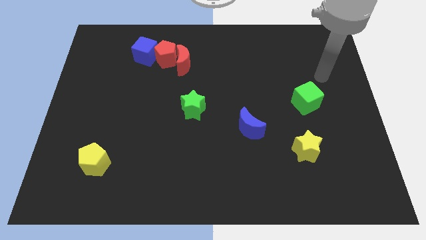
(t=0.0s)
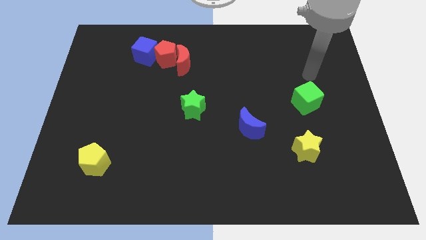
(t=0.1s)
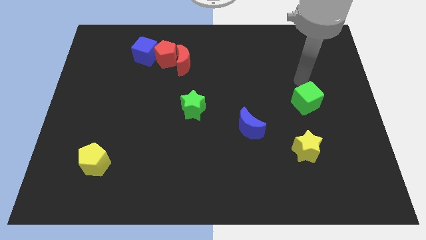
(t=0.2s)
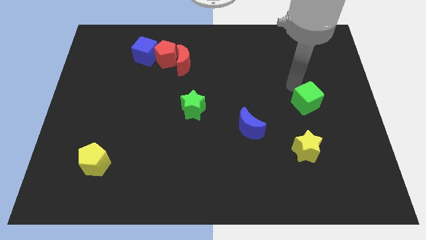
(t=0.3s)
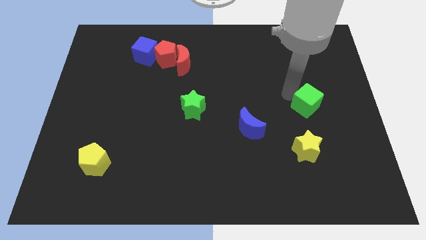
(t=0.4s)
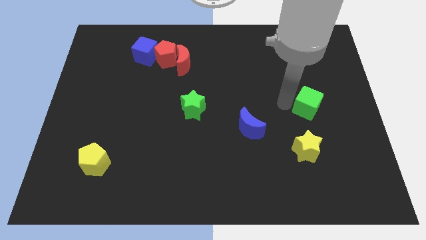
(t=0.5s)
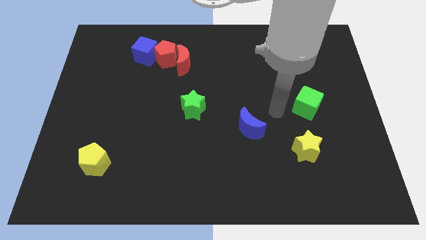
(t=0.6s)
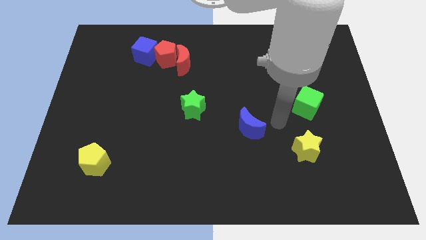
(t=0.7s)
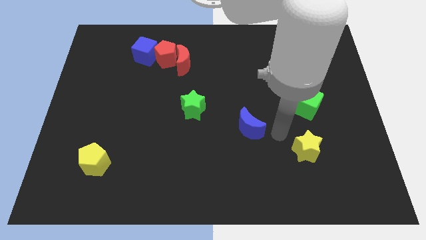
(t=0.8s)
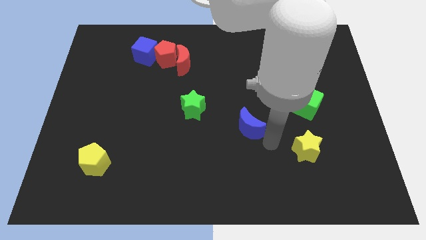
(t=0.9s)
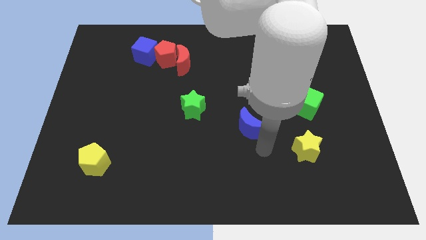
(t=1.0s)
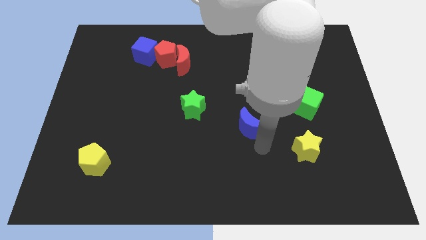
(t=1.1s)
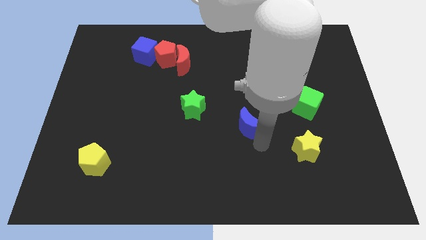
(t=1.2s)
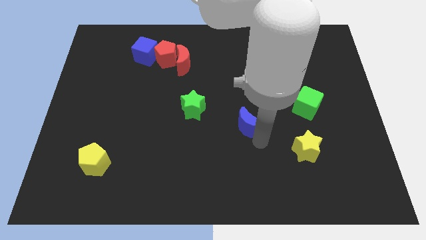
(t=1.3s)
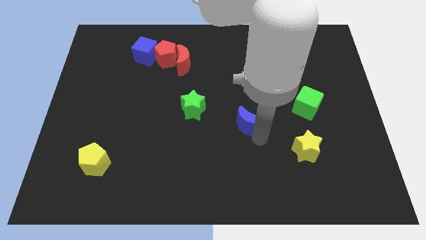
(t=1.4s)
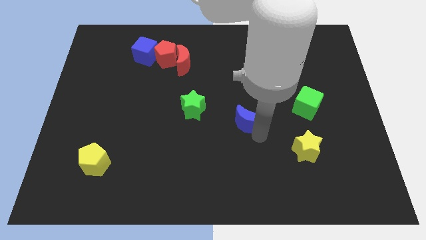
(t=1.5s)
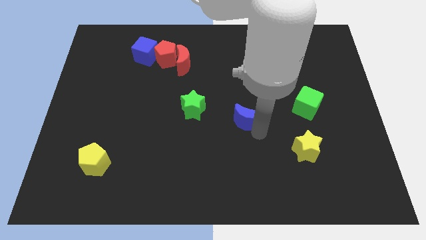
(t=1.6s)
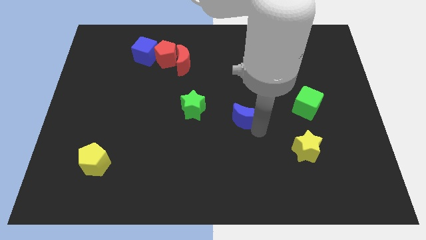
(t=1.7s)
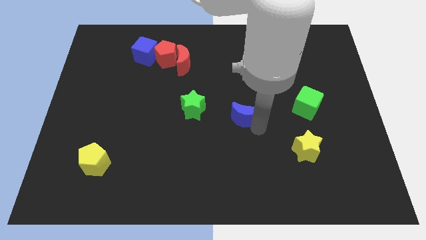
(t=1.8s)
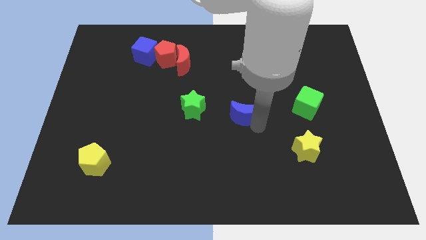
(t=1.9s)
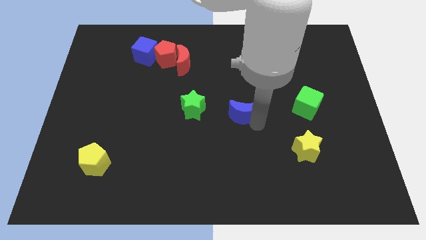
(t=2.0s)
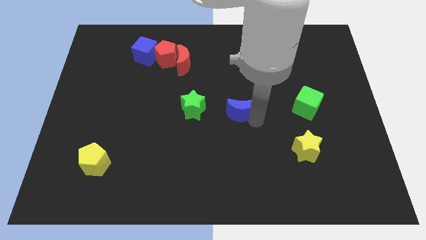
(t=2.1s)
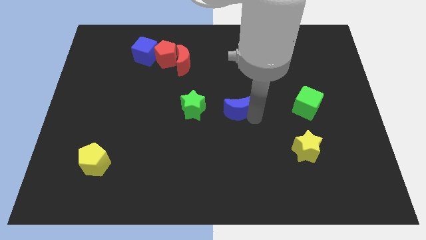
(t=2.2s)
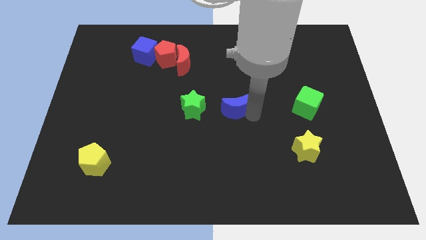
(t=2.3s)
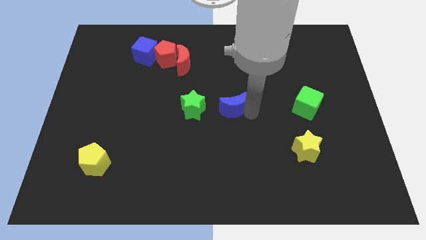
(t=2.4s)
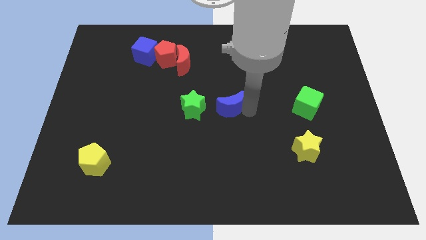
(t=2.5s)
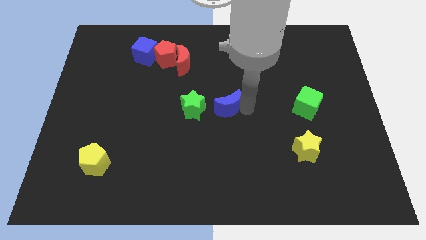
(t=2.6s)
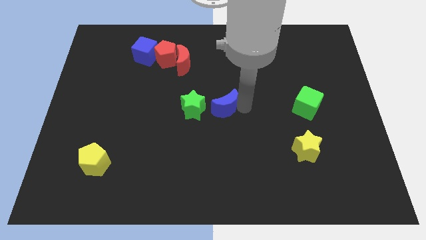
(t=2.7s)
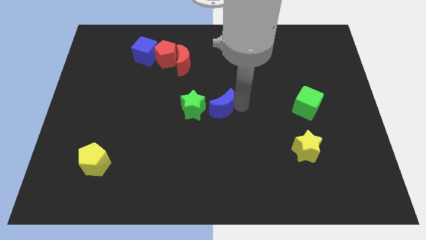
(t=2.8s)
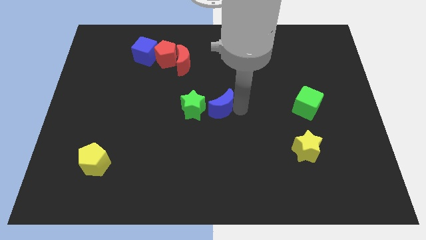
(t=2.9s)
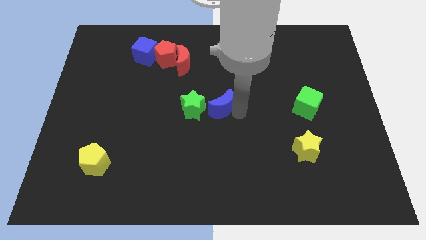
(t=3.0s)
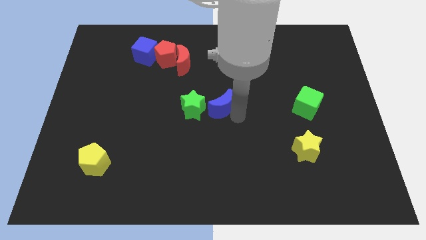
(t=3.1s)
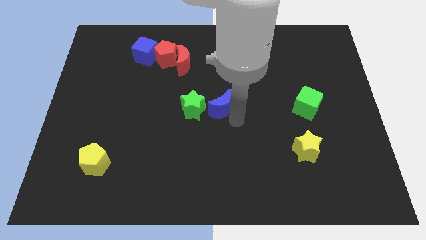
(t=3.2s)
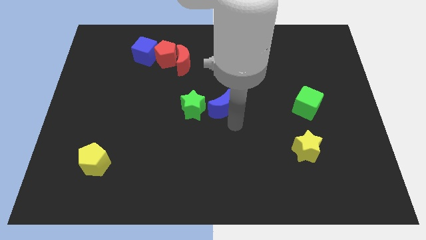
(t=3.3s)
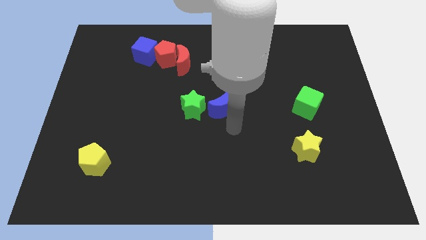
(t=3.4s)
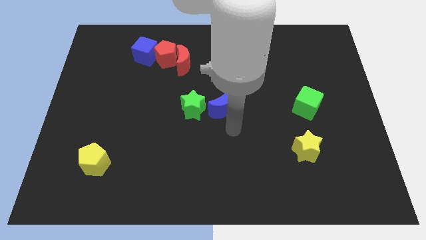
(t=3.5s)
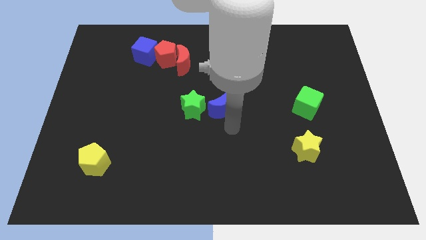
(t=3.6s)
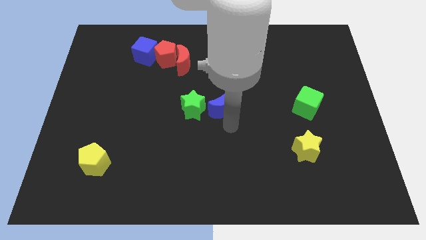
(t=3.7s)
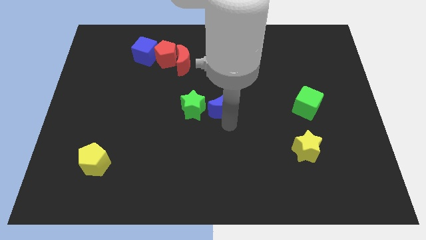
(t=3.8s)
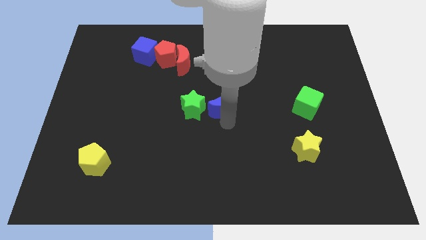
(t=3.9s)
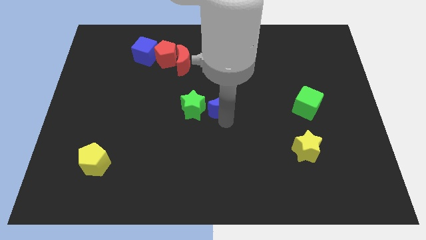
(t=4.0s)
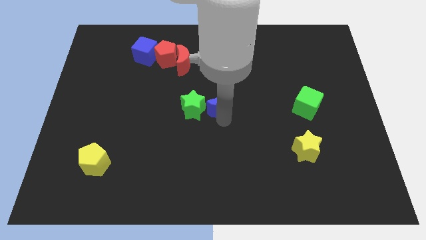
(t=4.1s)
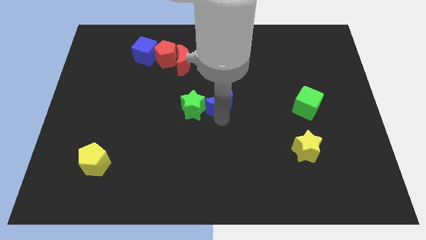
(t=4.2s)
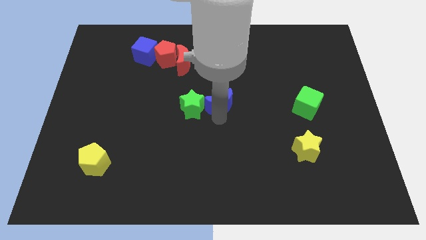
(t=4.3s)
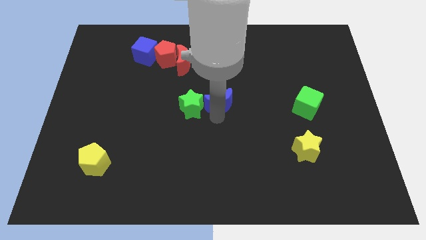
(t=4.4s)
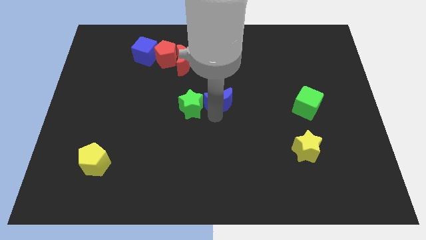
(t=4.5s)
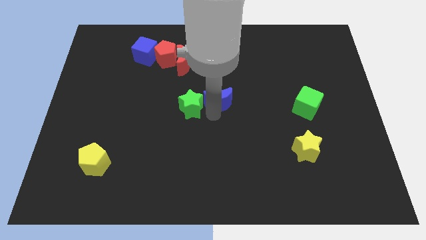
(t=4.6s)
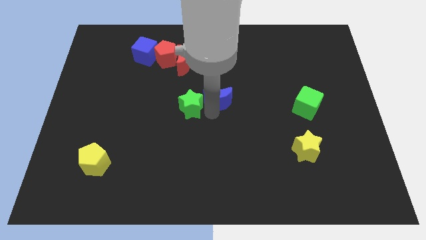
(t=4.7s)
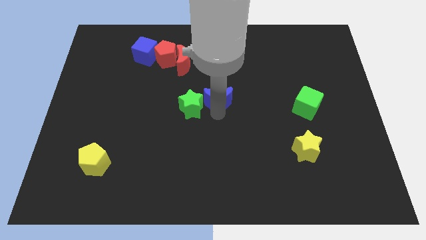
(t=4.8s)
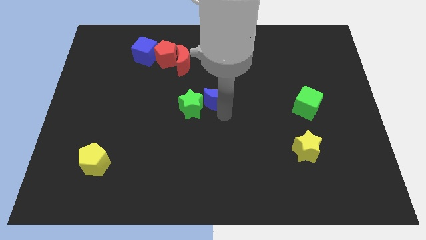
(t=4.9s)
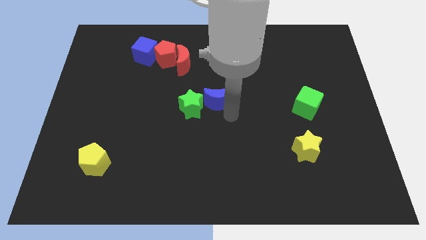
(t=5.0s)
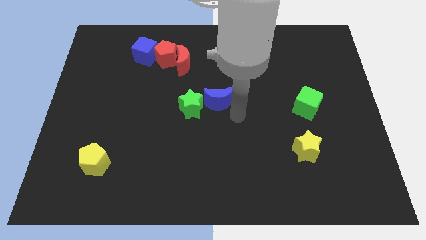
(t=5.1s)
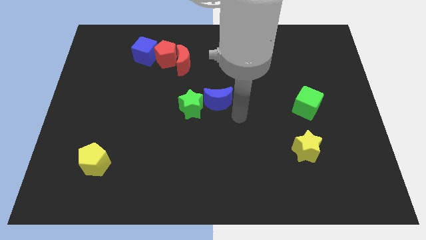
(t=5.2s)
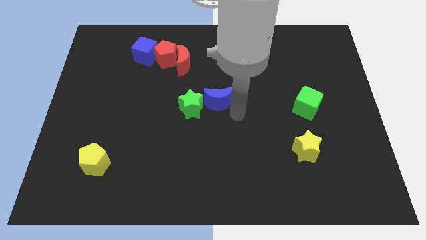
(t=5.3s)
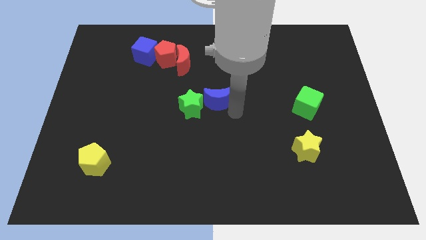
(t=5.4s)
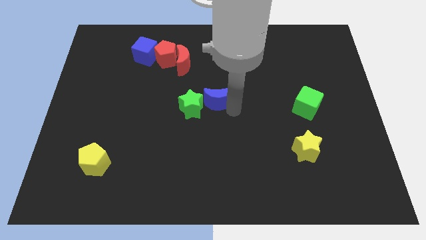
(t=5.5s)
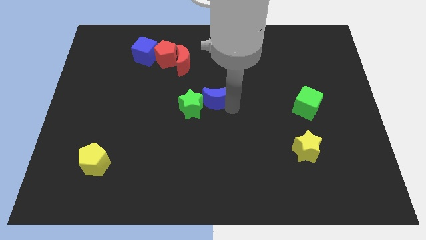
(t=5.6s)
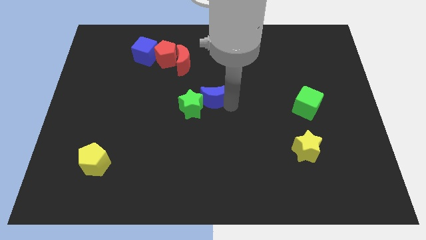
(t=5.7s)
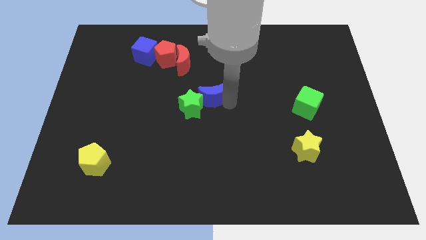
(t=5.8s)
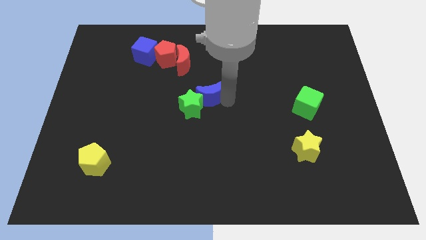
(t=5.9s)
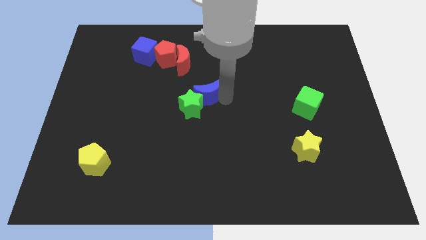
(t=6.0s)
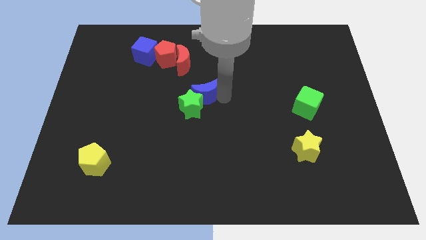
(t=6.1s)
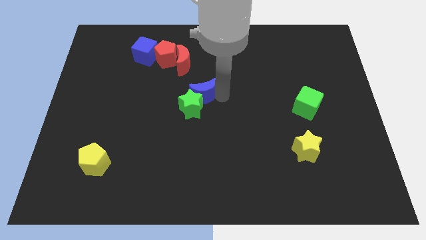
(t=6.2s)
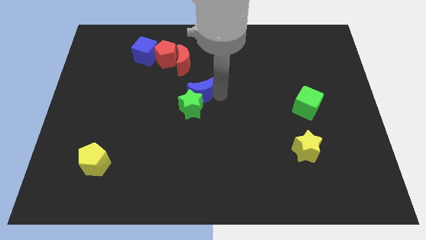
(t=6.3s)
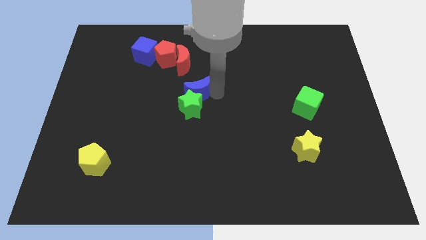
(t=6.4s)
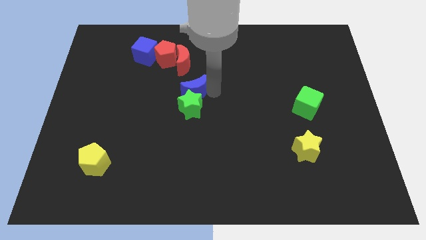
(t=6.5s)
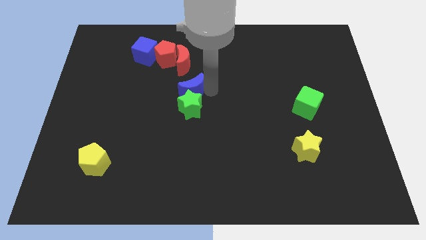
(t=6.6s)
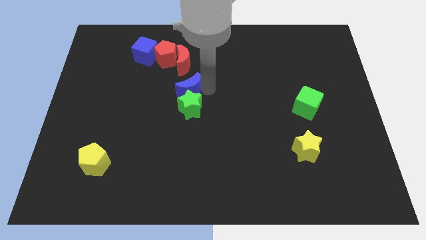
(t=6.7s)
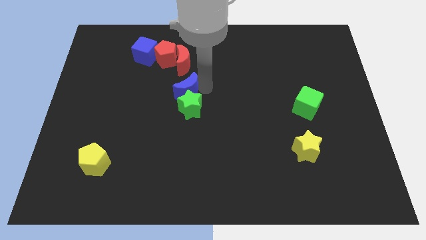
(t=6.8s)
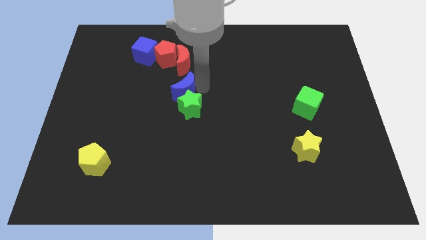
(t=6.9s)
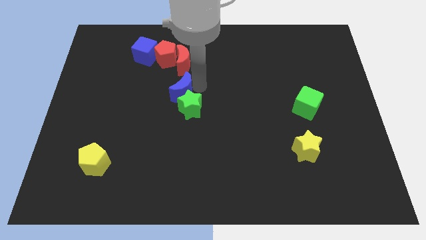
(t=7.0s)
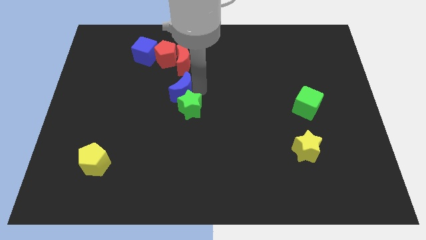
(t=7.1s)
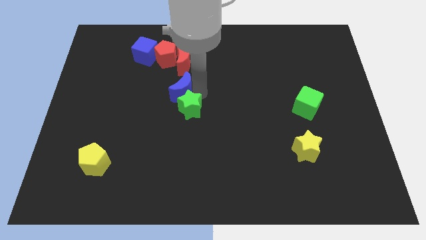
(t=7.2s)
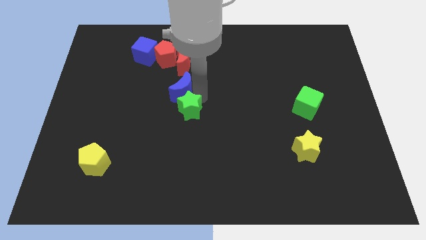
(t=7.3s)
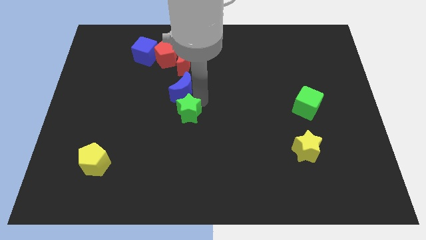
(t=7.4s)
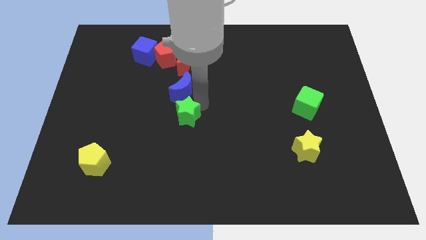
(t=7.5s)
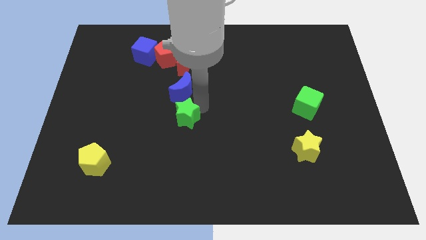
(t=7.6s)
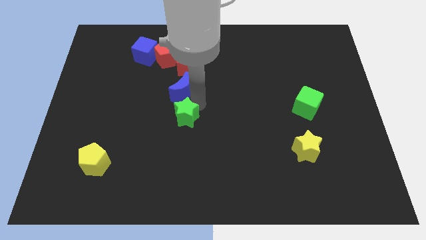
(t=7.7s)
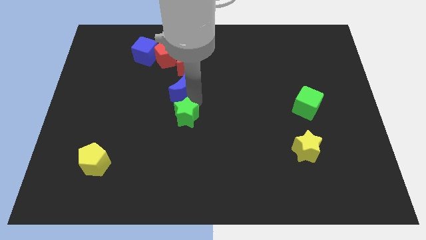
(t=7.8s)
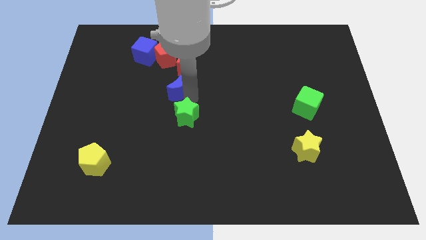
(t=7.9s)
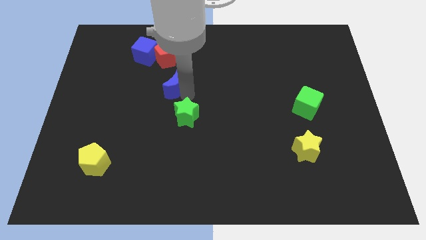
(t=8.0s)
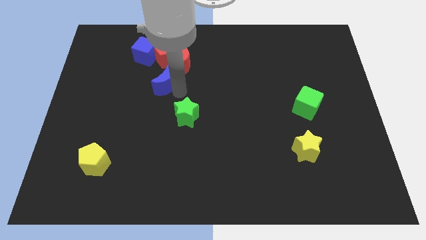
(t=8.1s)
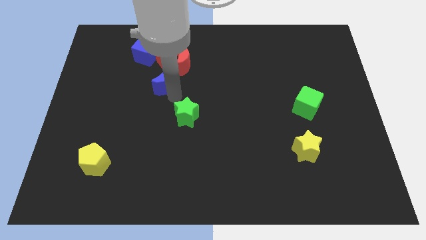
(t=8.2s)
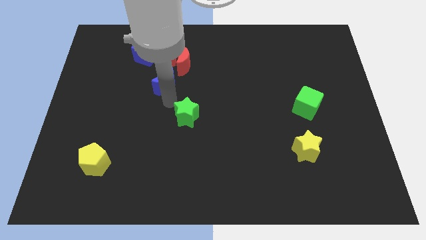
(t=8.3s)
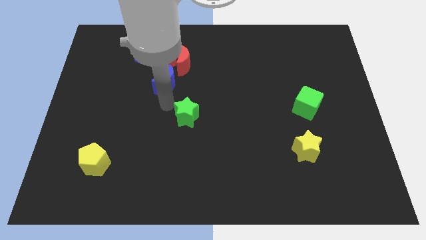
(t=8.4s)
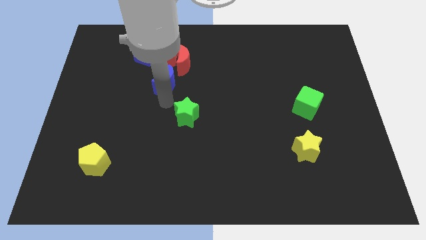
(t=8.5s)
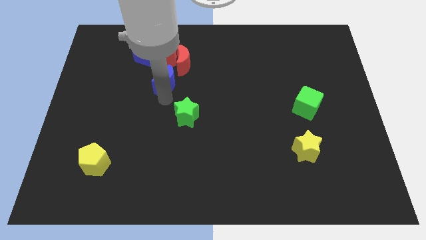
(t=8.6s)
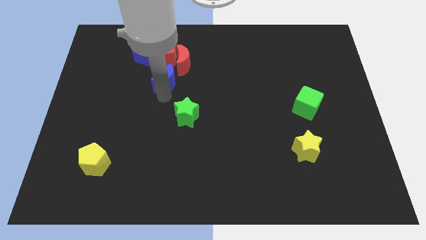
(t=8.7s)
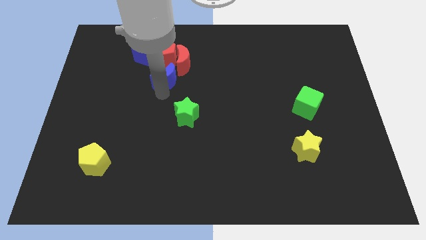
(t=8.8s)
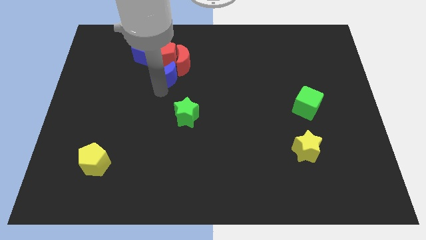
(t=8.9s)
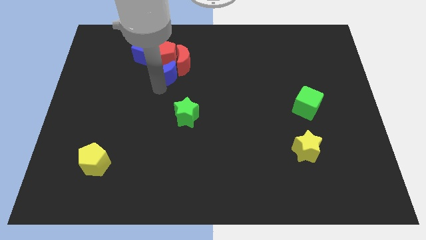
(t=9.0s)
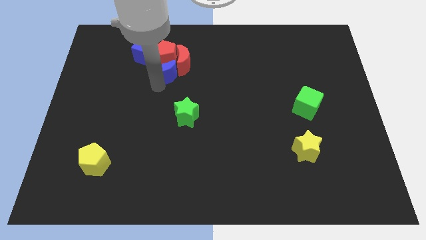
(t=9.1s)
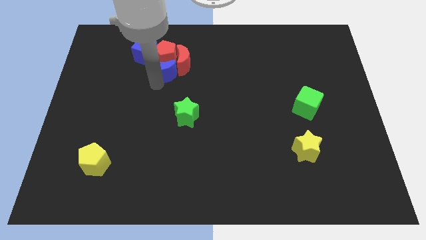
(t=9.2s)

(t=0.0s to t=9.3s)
move the blue moon next to the red pentagon
